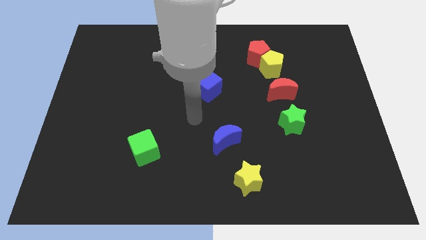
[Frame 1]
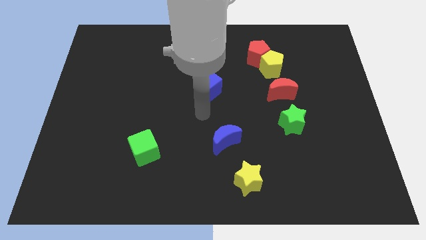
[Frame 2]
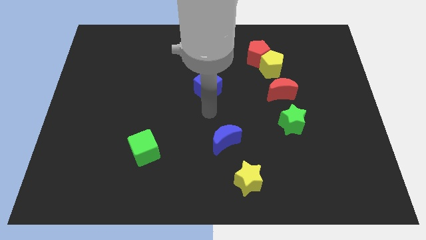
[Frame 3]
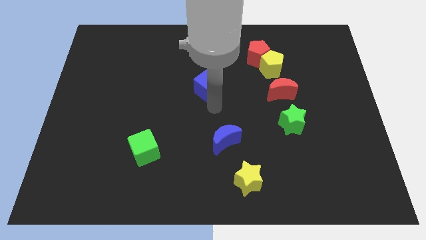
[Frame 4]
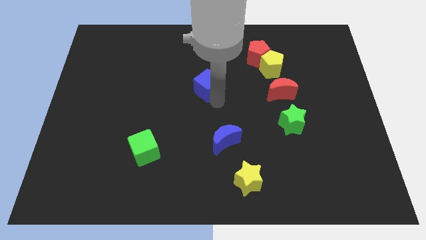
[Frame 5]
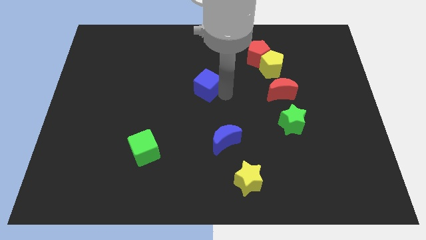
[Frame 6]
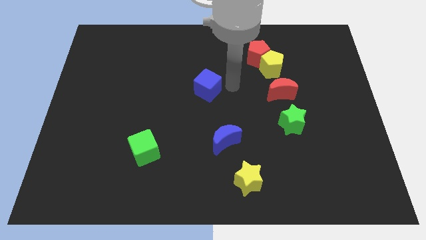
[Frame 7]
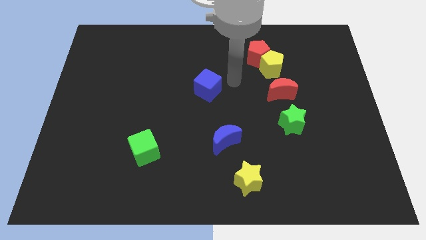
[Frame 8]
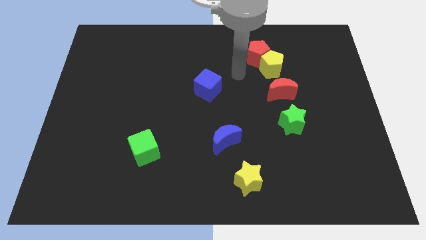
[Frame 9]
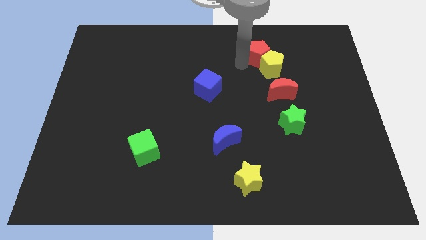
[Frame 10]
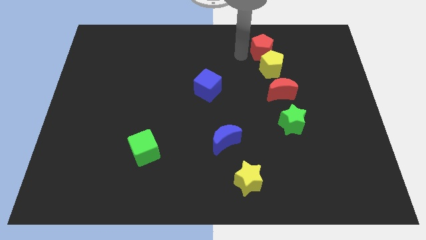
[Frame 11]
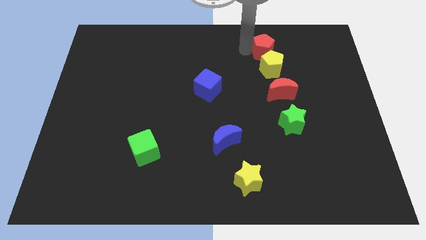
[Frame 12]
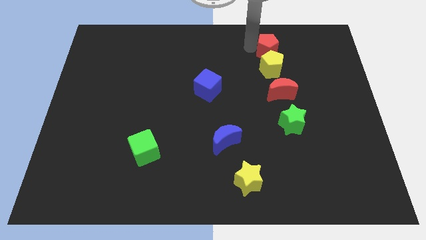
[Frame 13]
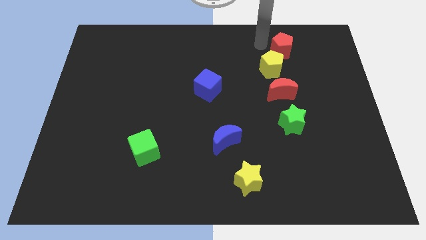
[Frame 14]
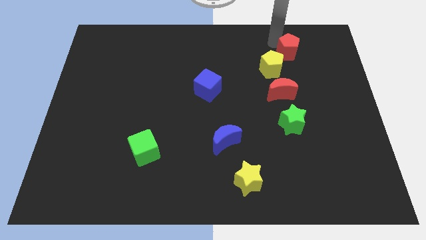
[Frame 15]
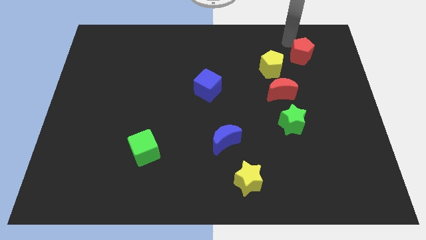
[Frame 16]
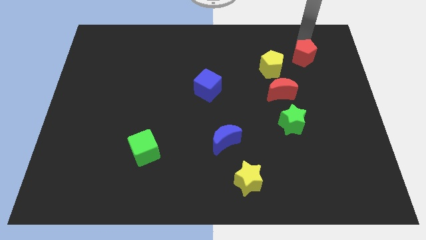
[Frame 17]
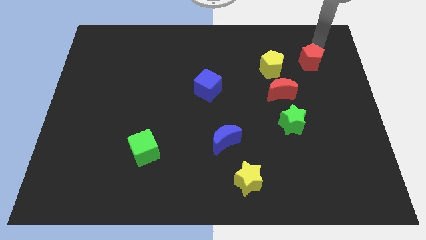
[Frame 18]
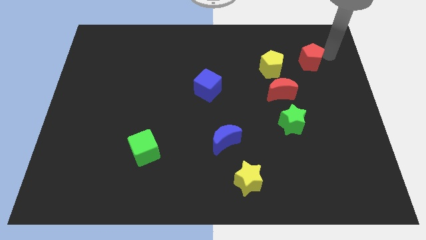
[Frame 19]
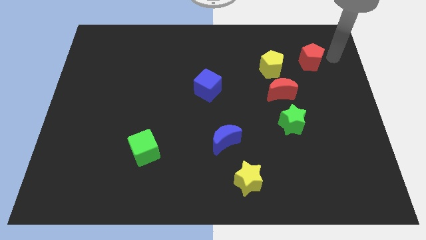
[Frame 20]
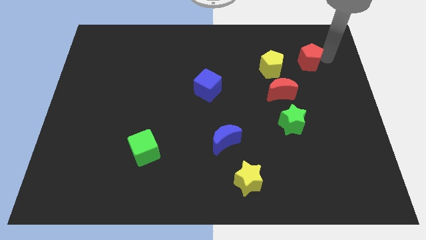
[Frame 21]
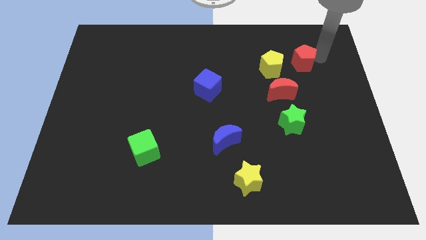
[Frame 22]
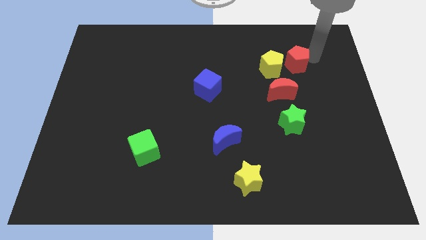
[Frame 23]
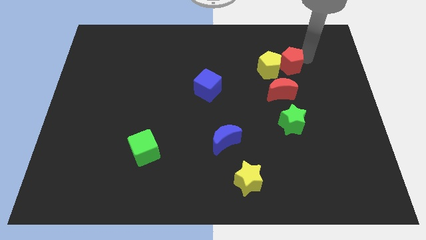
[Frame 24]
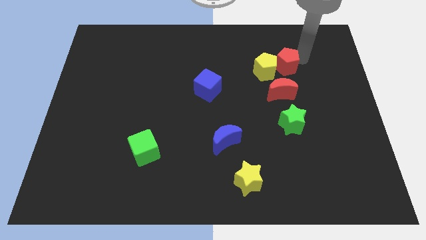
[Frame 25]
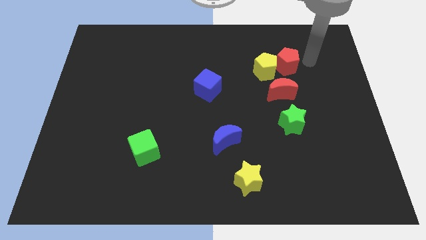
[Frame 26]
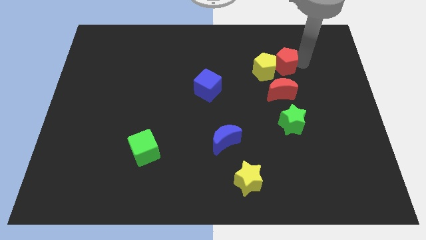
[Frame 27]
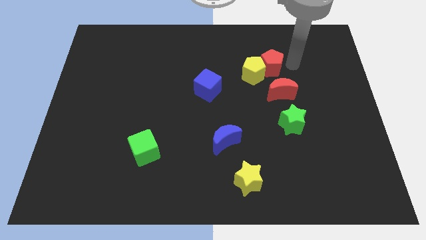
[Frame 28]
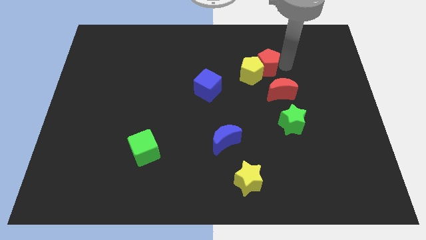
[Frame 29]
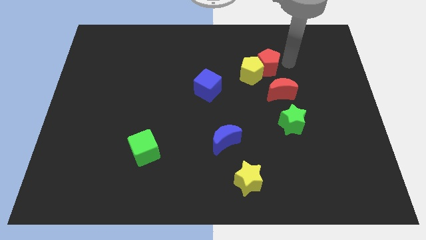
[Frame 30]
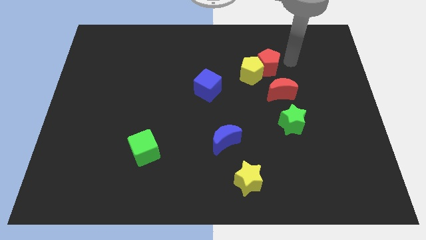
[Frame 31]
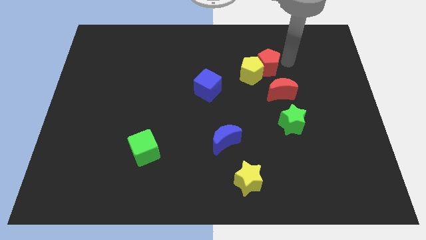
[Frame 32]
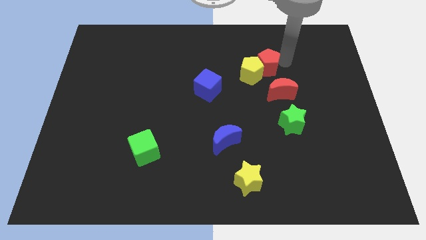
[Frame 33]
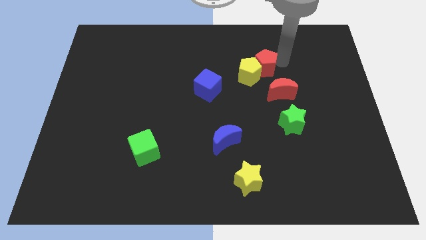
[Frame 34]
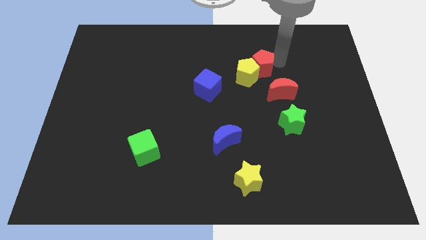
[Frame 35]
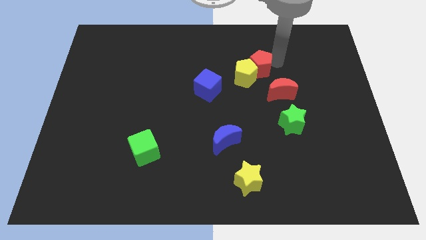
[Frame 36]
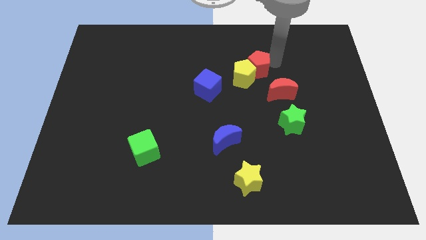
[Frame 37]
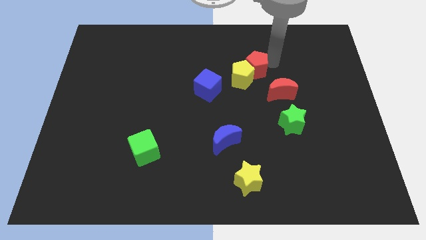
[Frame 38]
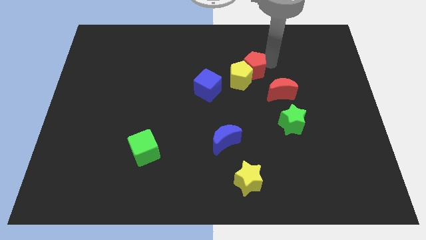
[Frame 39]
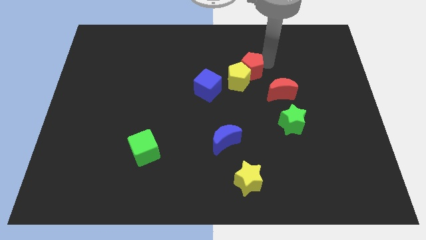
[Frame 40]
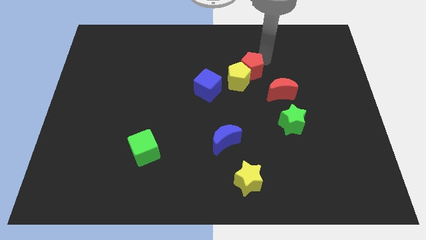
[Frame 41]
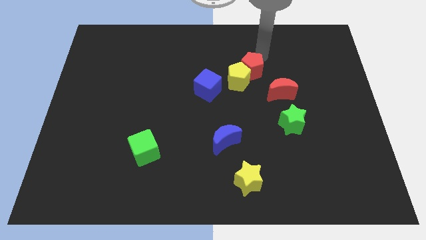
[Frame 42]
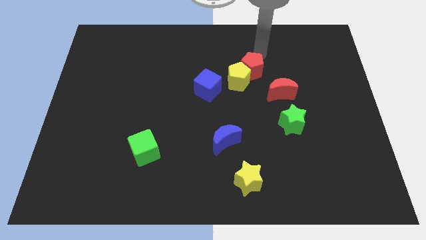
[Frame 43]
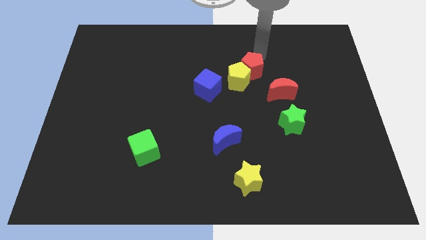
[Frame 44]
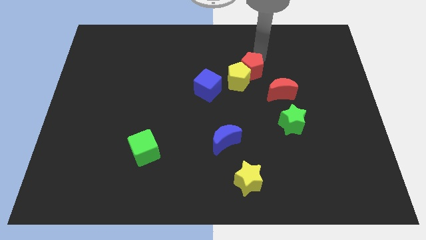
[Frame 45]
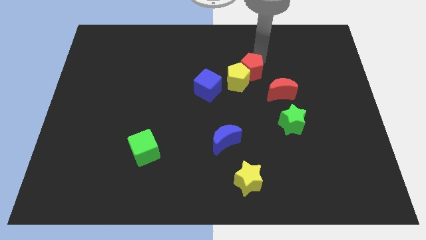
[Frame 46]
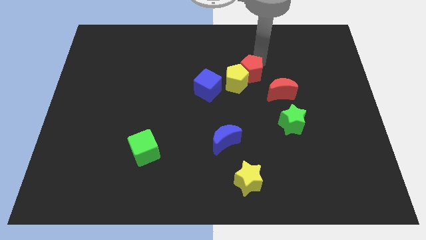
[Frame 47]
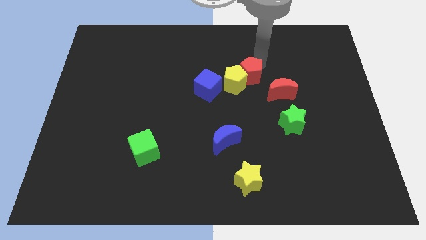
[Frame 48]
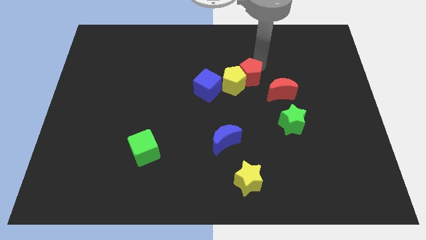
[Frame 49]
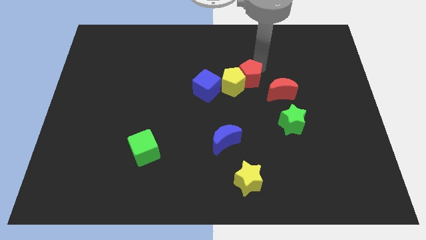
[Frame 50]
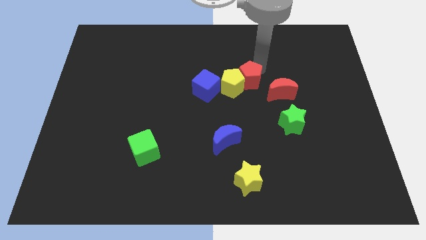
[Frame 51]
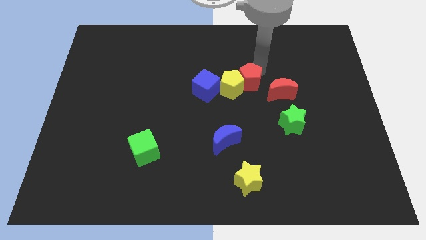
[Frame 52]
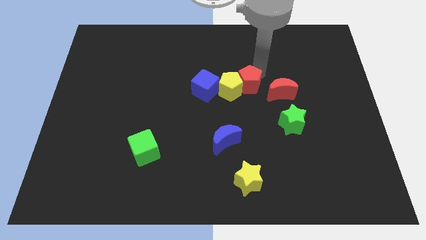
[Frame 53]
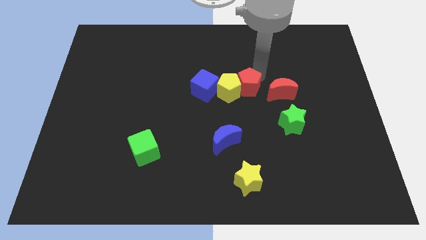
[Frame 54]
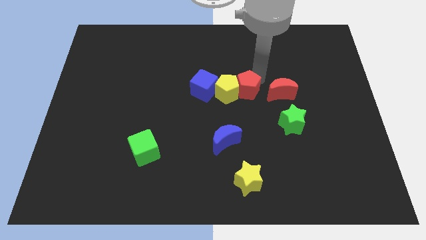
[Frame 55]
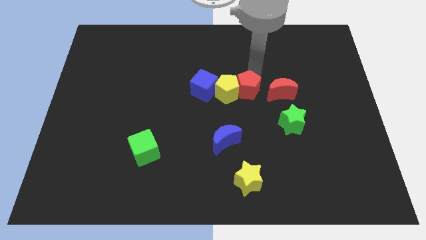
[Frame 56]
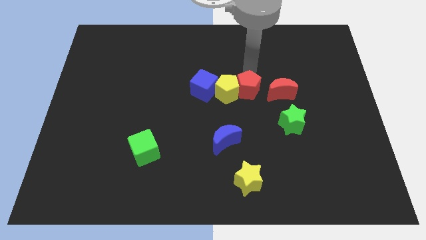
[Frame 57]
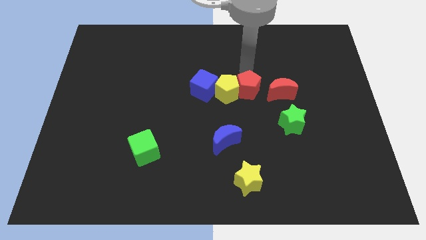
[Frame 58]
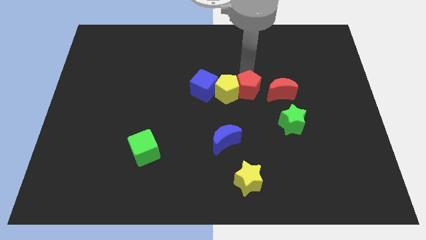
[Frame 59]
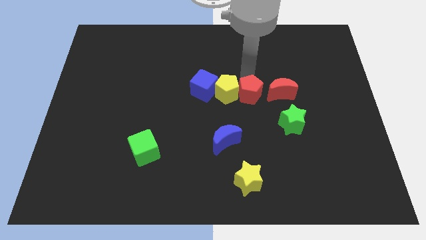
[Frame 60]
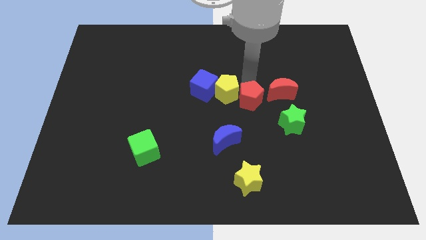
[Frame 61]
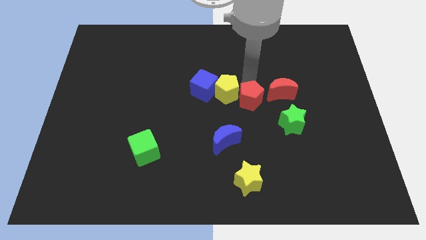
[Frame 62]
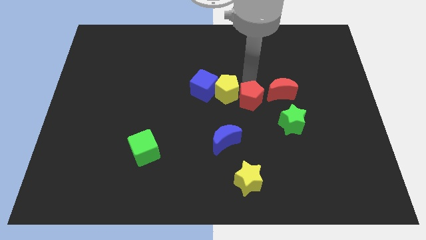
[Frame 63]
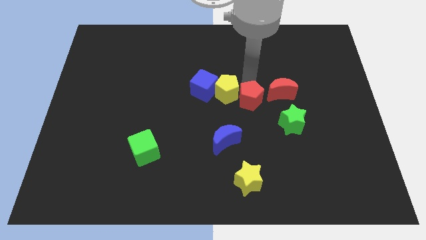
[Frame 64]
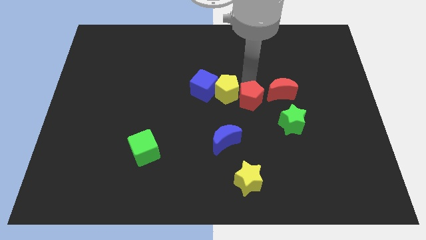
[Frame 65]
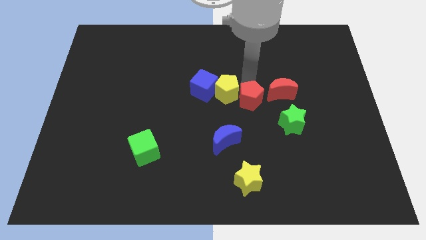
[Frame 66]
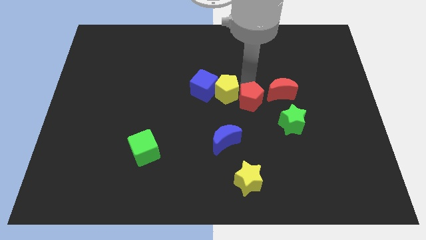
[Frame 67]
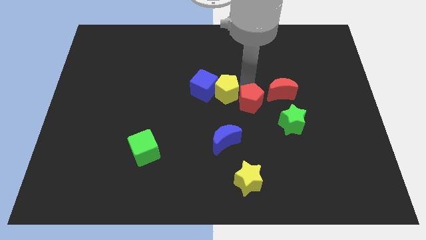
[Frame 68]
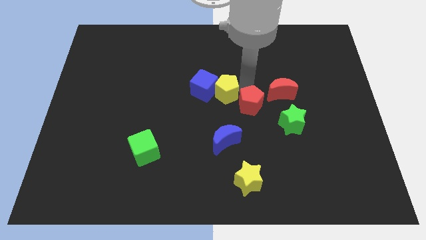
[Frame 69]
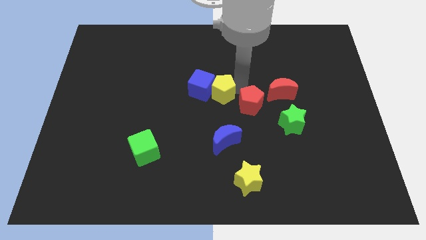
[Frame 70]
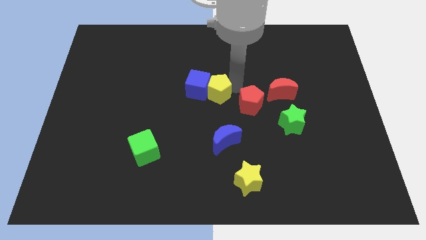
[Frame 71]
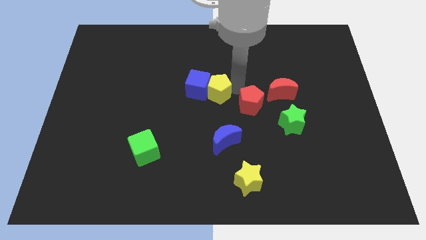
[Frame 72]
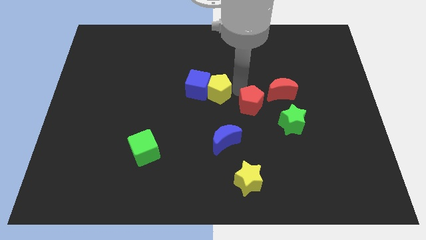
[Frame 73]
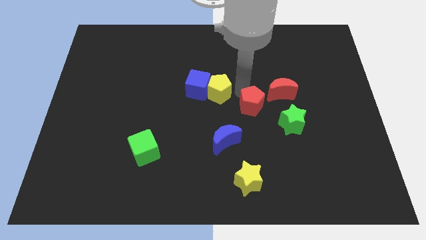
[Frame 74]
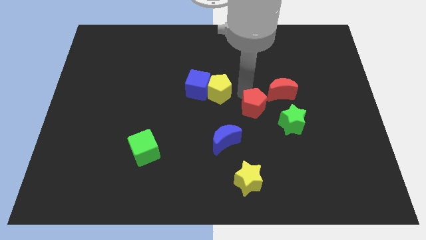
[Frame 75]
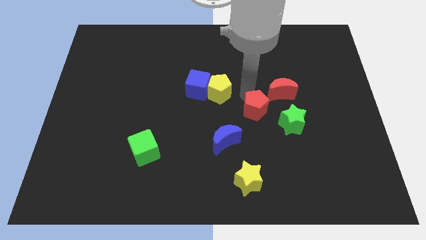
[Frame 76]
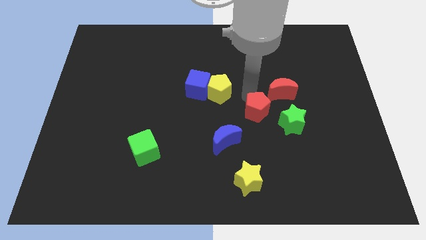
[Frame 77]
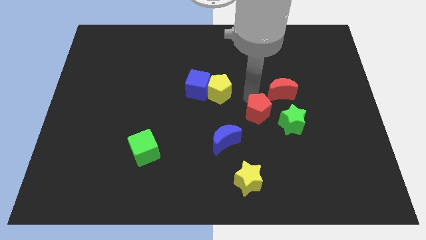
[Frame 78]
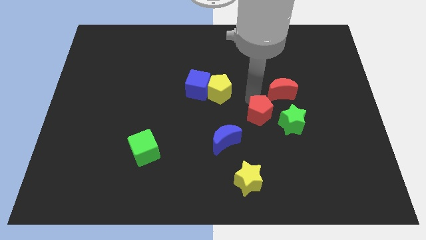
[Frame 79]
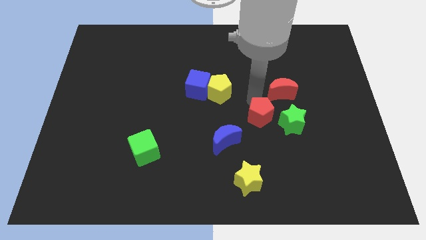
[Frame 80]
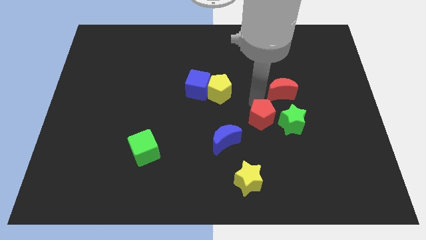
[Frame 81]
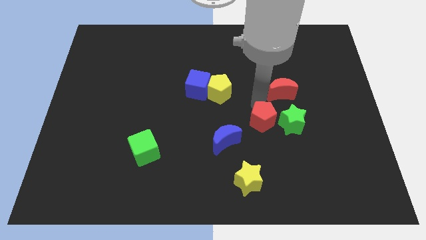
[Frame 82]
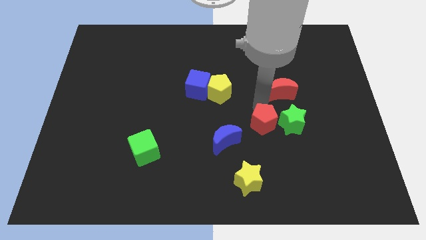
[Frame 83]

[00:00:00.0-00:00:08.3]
push the red pentagon right of the blue moon
